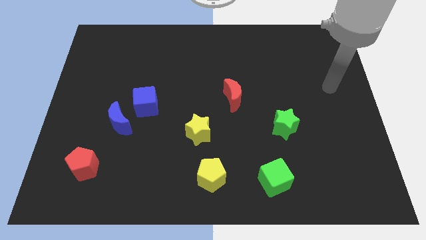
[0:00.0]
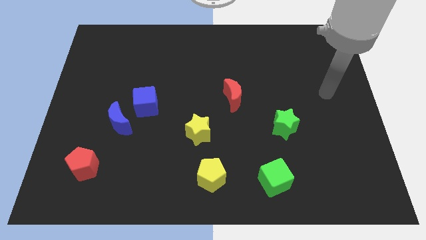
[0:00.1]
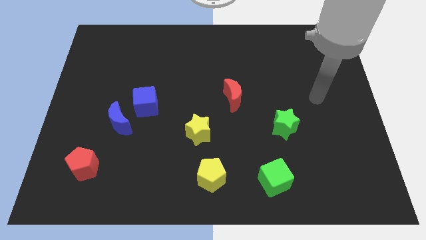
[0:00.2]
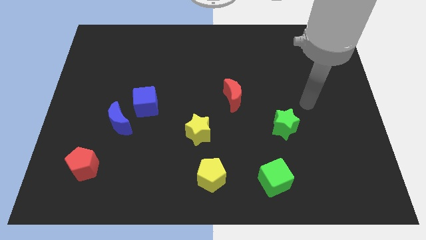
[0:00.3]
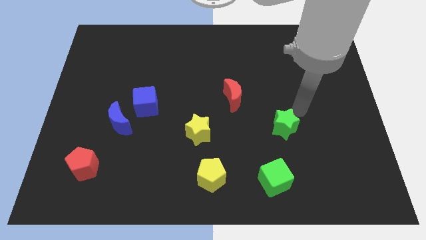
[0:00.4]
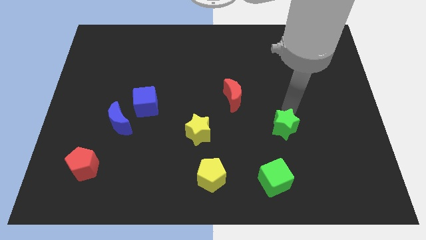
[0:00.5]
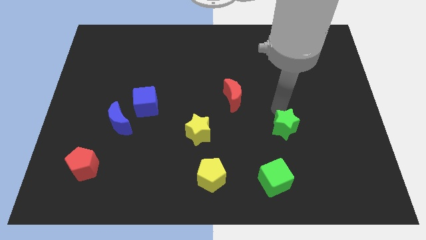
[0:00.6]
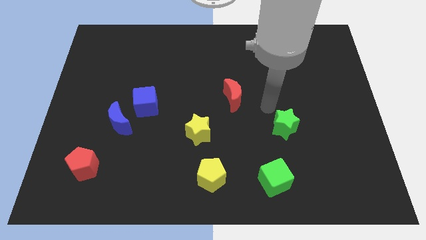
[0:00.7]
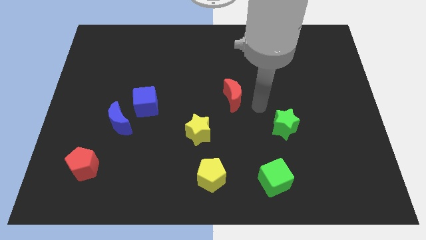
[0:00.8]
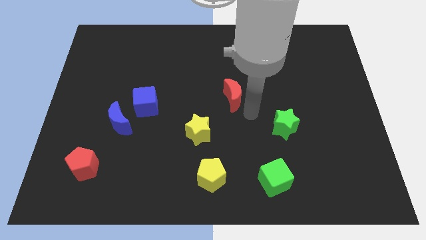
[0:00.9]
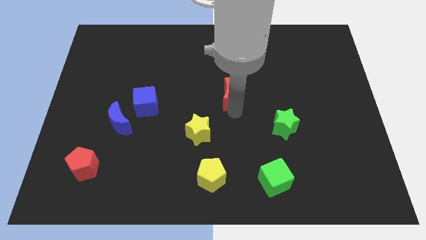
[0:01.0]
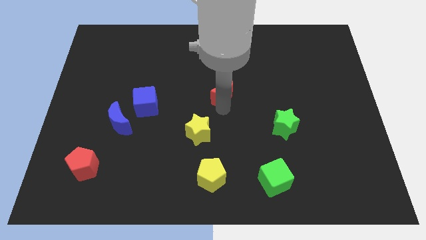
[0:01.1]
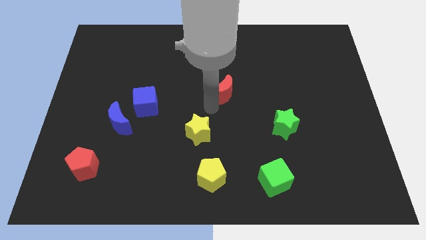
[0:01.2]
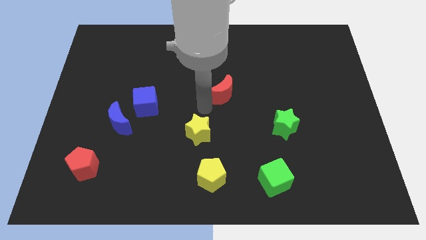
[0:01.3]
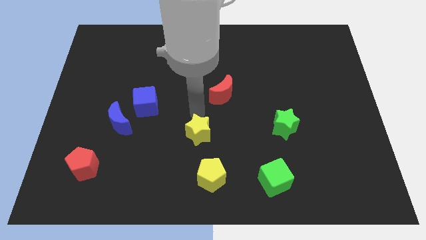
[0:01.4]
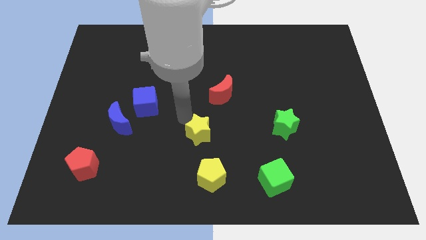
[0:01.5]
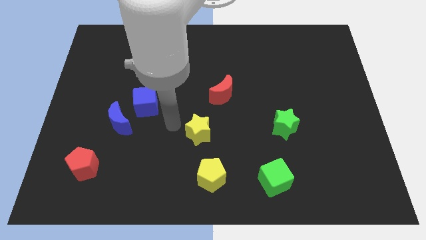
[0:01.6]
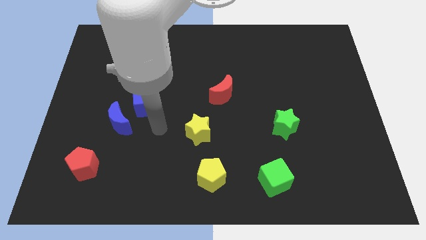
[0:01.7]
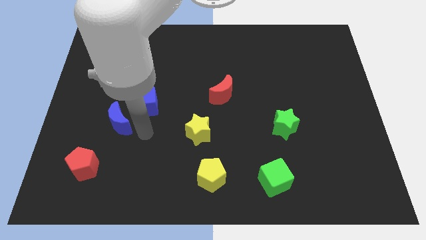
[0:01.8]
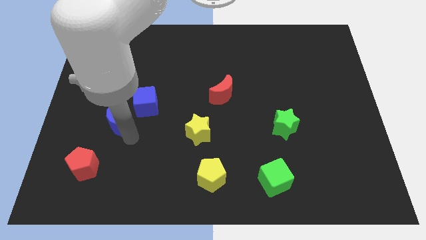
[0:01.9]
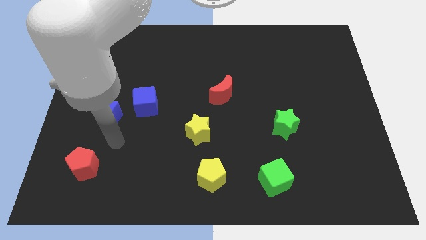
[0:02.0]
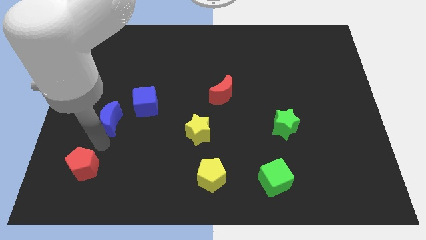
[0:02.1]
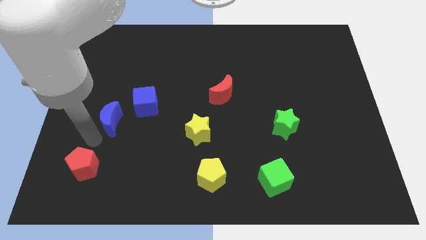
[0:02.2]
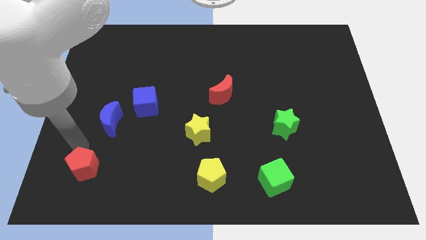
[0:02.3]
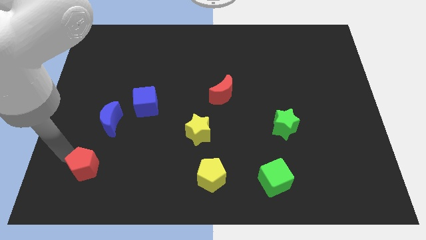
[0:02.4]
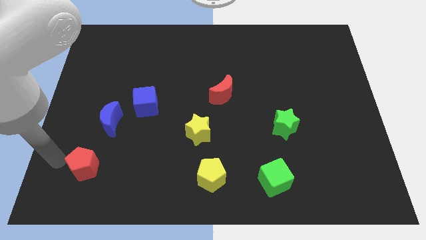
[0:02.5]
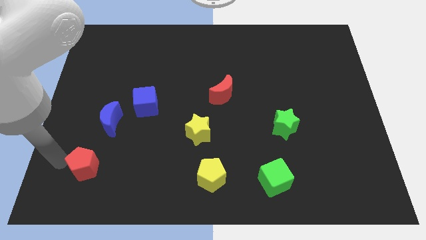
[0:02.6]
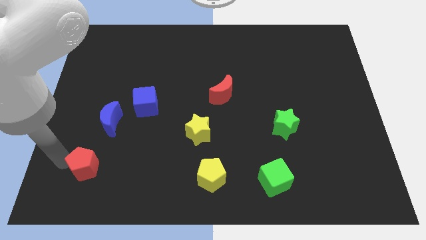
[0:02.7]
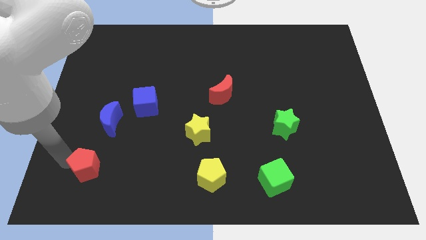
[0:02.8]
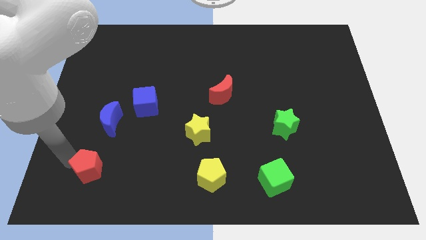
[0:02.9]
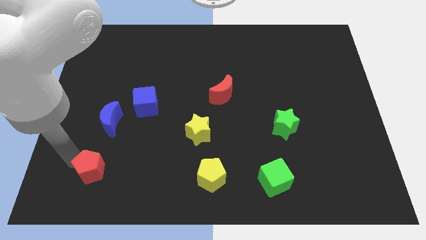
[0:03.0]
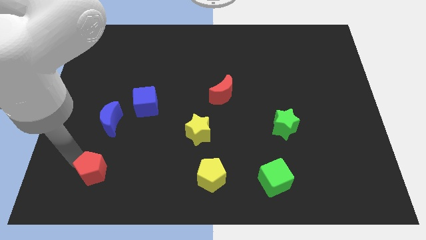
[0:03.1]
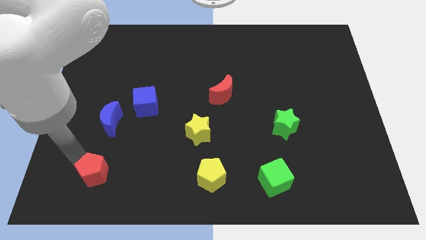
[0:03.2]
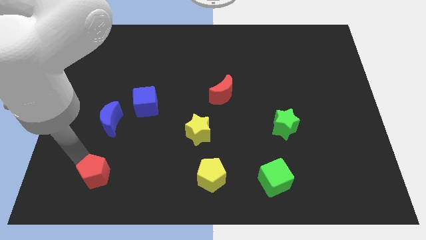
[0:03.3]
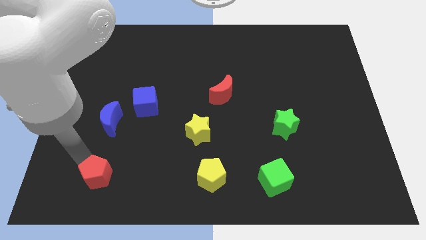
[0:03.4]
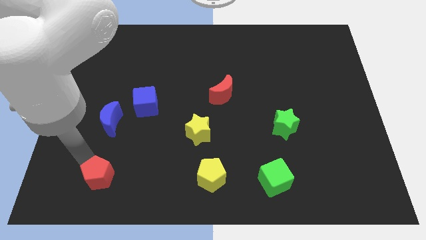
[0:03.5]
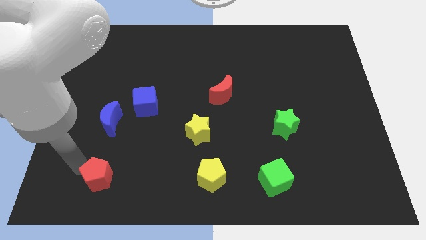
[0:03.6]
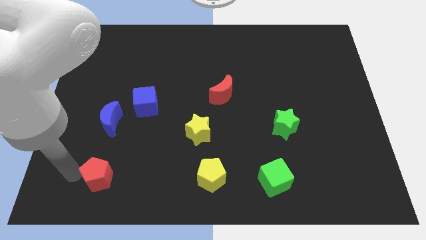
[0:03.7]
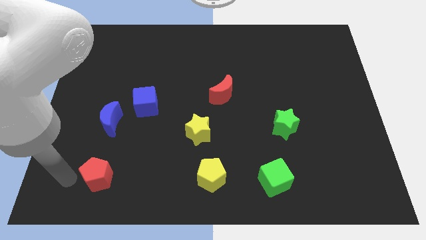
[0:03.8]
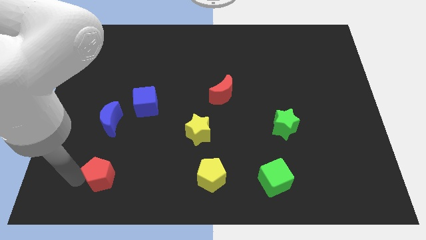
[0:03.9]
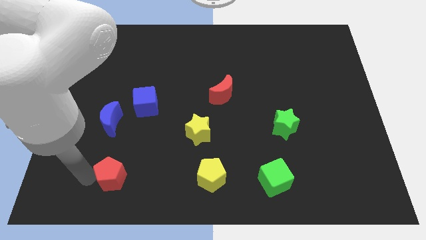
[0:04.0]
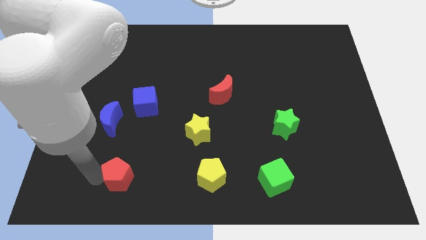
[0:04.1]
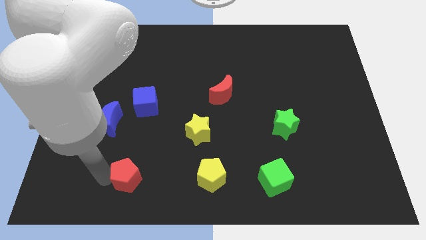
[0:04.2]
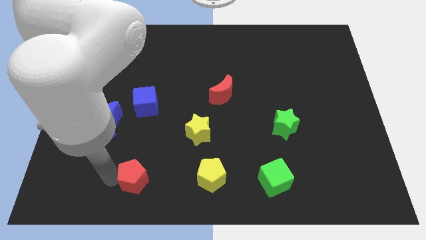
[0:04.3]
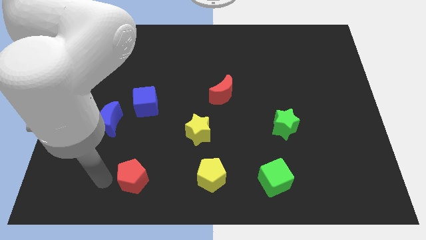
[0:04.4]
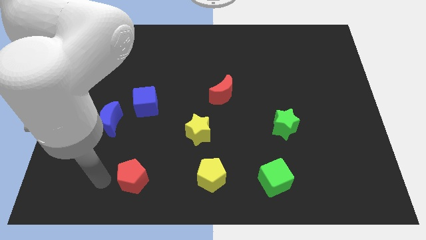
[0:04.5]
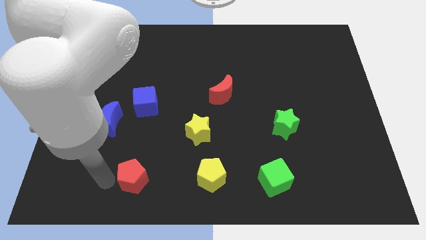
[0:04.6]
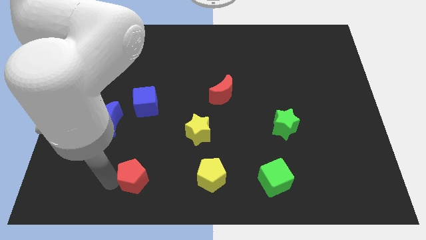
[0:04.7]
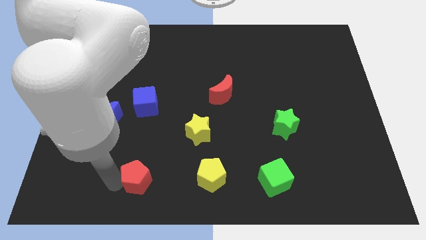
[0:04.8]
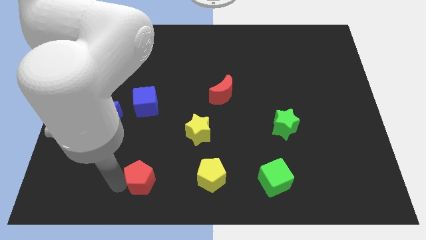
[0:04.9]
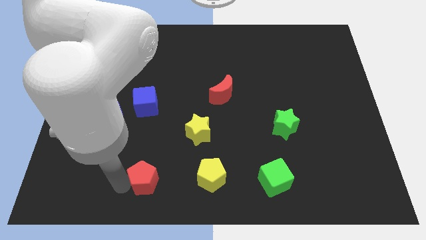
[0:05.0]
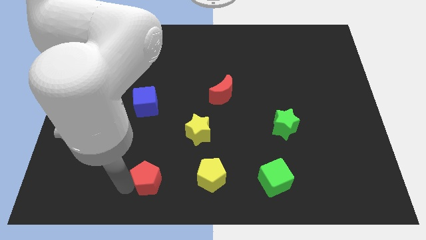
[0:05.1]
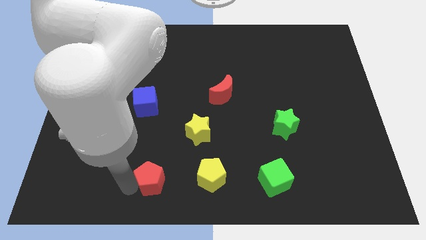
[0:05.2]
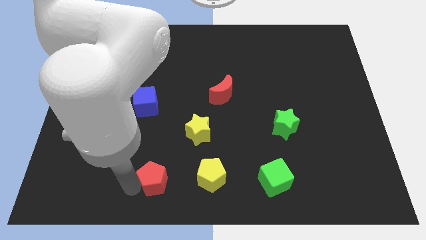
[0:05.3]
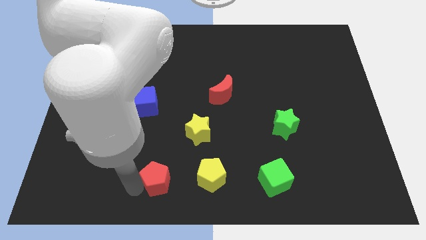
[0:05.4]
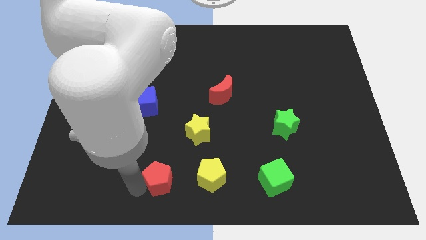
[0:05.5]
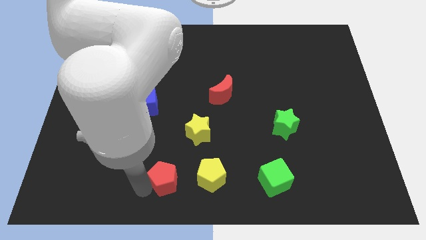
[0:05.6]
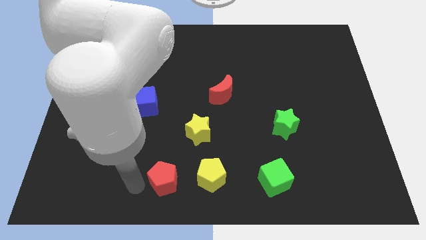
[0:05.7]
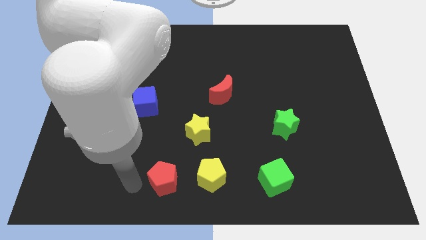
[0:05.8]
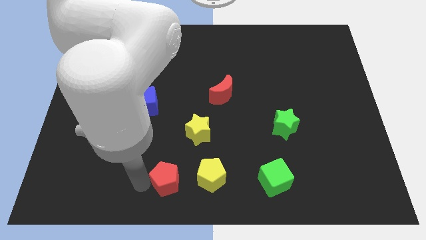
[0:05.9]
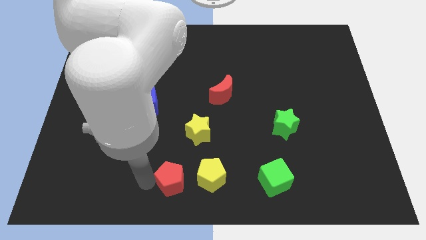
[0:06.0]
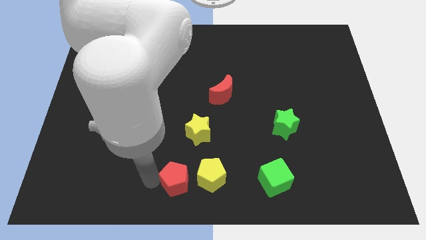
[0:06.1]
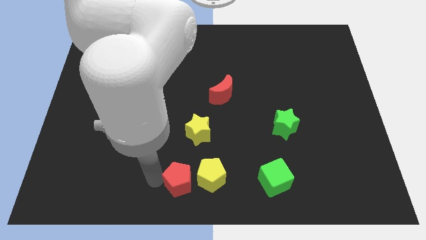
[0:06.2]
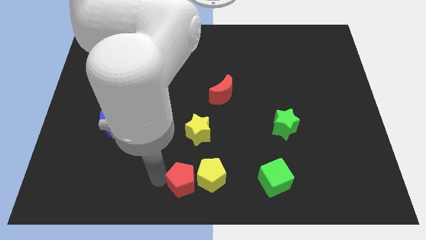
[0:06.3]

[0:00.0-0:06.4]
slide the red pentagon close to the yellow pentagon

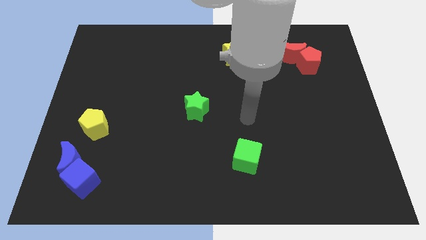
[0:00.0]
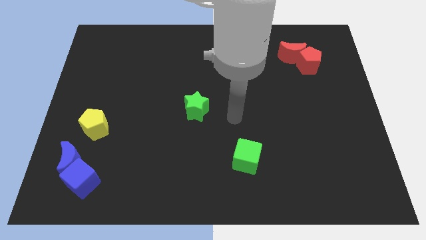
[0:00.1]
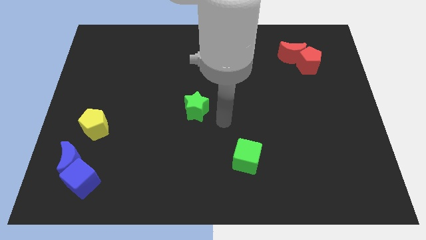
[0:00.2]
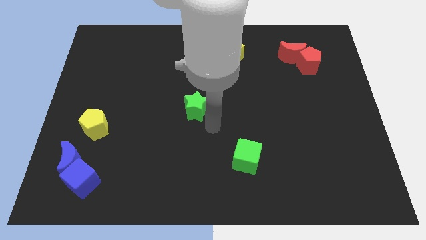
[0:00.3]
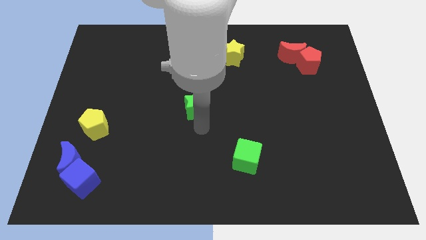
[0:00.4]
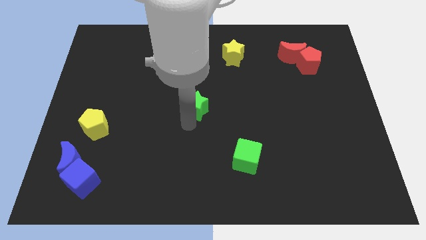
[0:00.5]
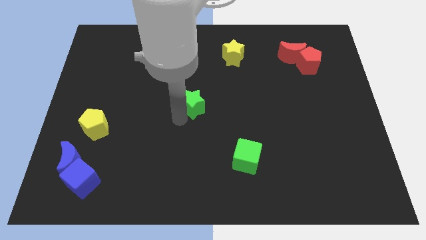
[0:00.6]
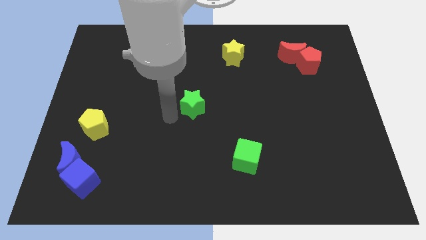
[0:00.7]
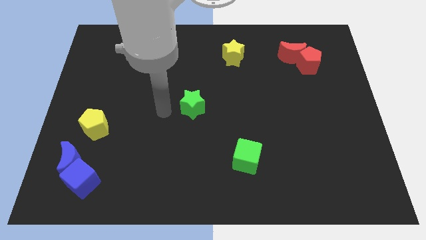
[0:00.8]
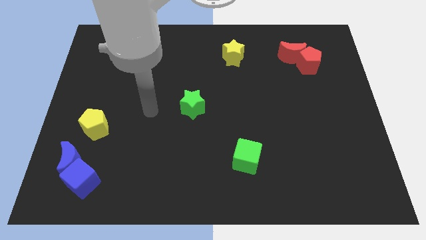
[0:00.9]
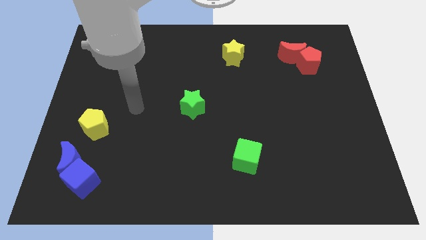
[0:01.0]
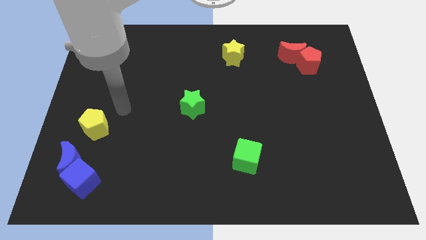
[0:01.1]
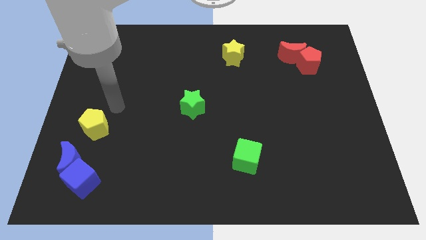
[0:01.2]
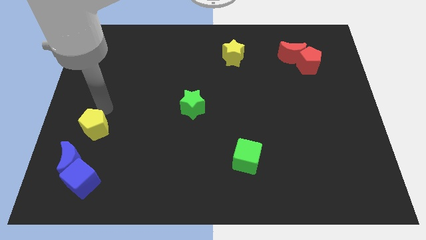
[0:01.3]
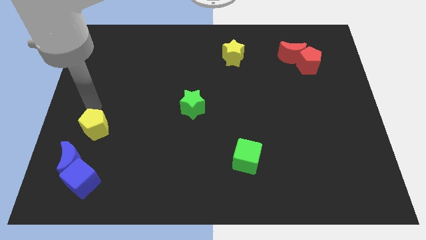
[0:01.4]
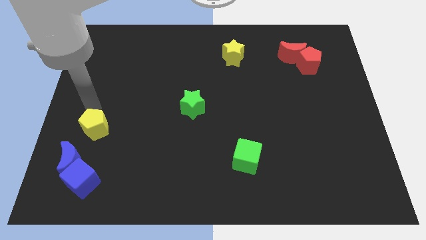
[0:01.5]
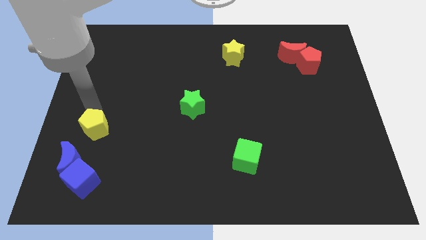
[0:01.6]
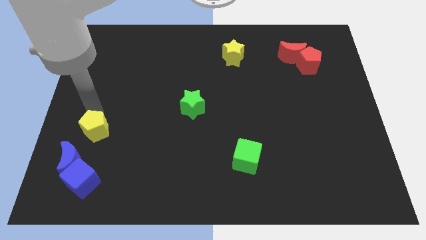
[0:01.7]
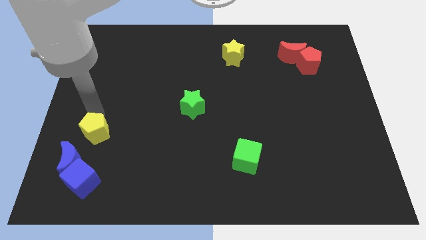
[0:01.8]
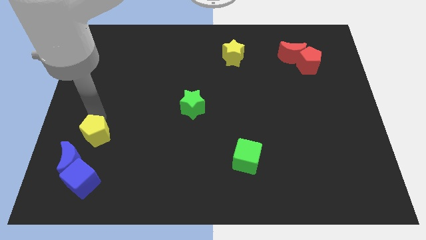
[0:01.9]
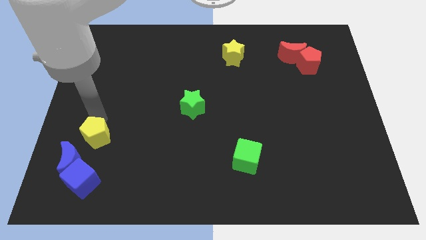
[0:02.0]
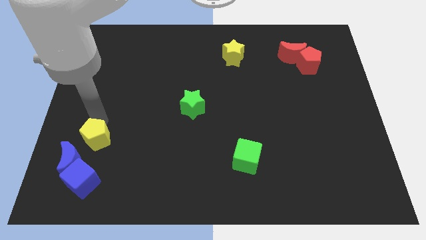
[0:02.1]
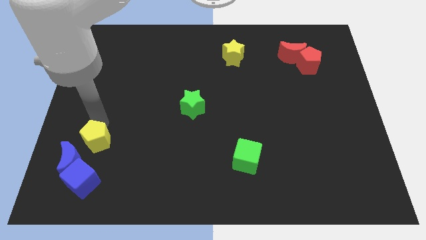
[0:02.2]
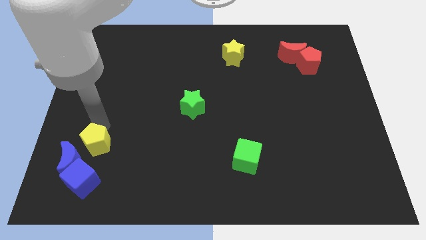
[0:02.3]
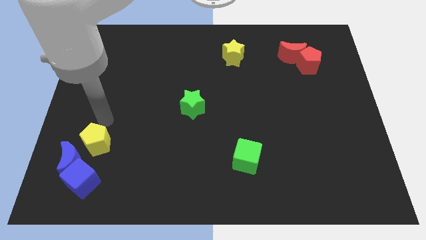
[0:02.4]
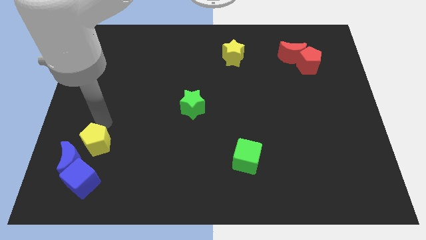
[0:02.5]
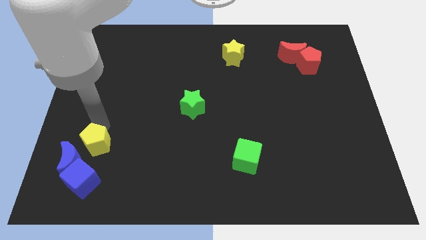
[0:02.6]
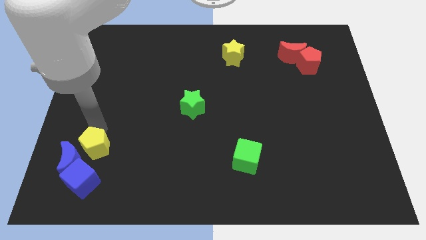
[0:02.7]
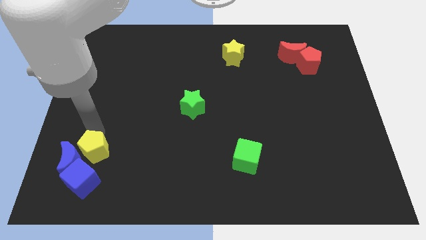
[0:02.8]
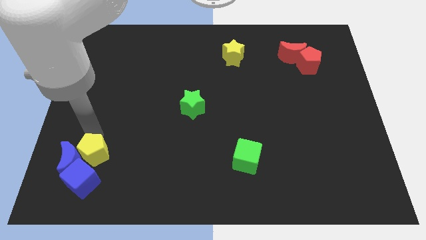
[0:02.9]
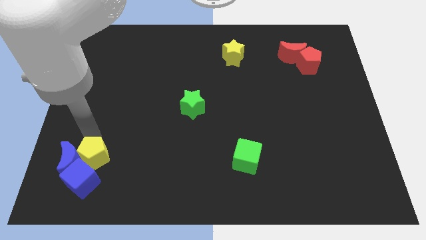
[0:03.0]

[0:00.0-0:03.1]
move the yellow pentagon to the blue cube
